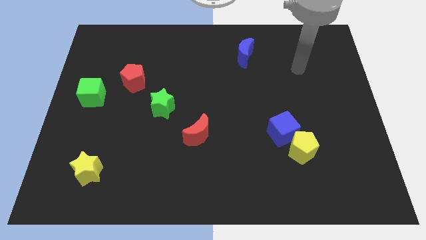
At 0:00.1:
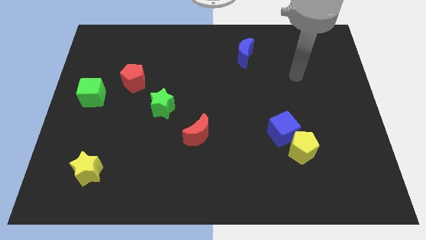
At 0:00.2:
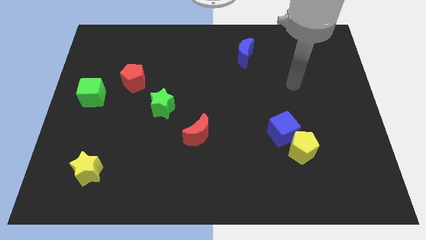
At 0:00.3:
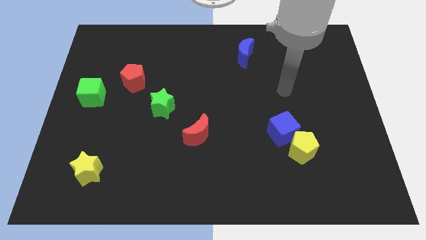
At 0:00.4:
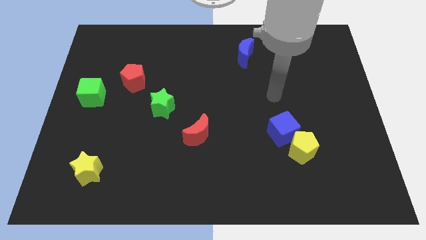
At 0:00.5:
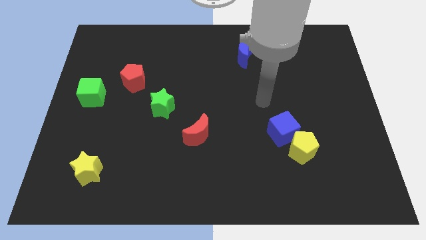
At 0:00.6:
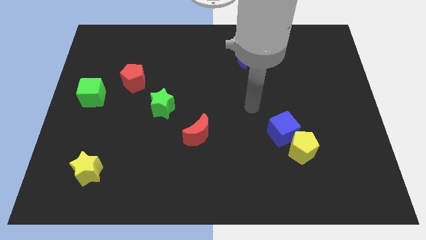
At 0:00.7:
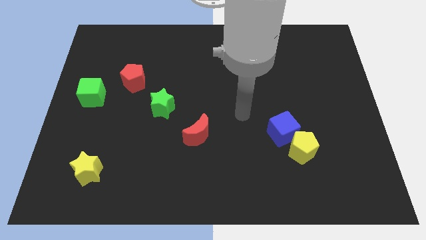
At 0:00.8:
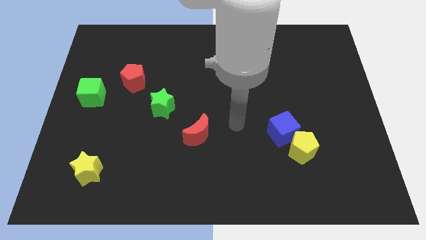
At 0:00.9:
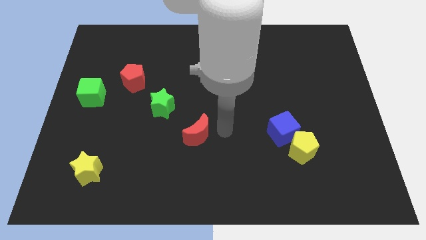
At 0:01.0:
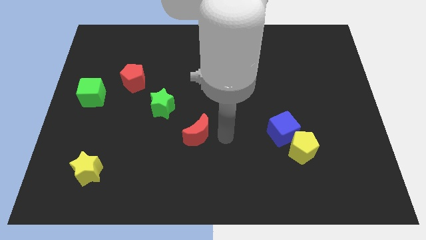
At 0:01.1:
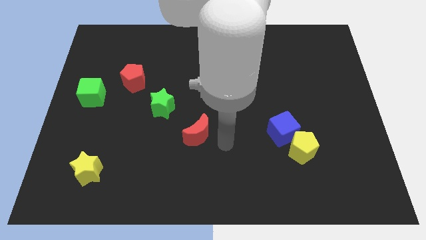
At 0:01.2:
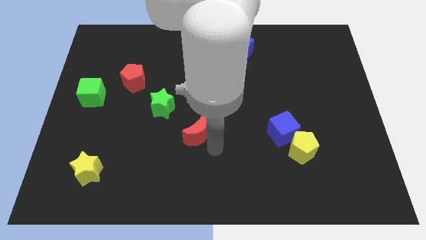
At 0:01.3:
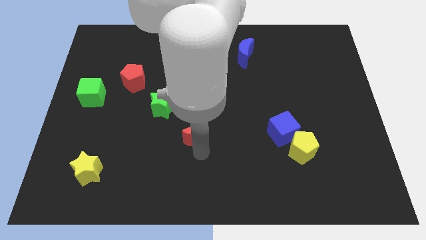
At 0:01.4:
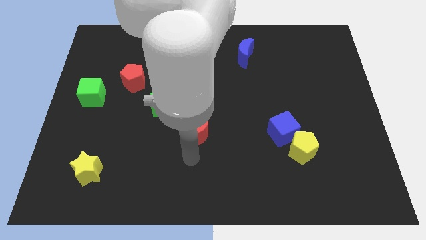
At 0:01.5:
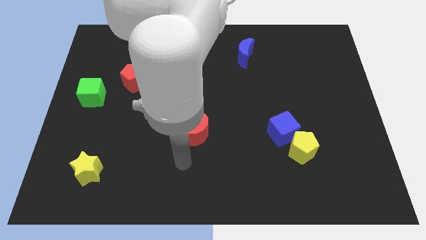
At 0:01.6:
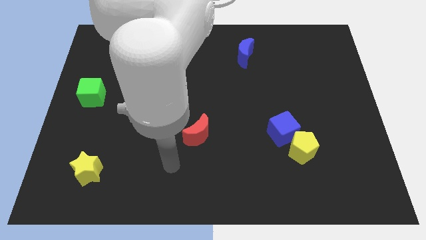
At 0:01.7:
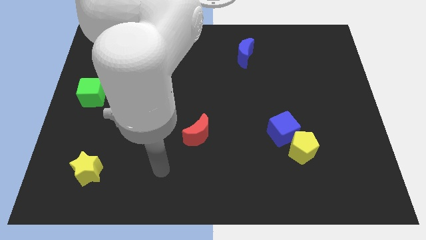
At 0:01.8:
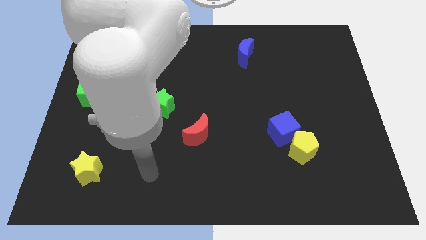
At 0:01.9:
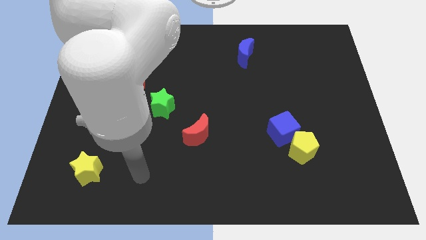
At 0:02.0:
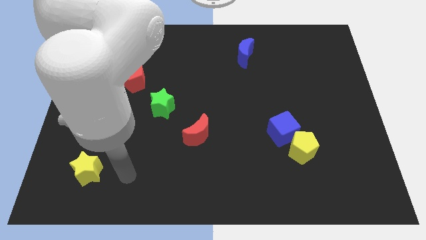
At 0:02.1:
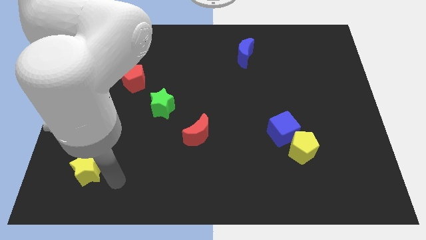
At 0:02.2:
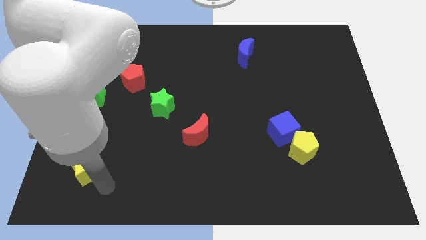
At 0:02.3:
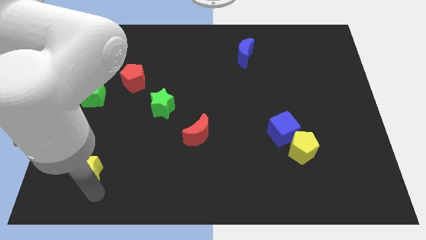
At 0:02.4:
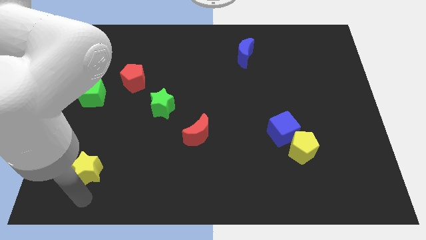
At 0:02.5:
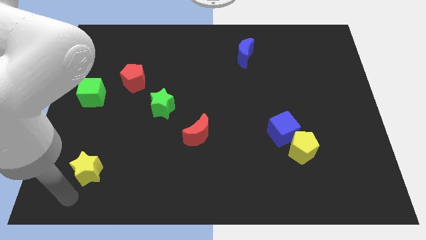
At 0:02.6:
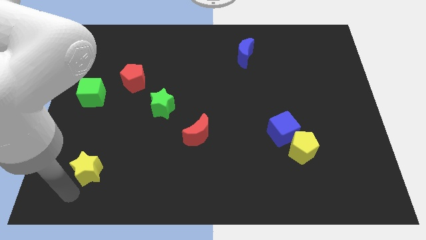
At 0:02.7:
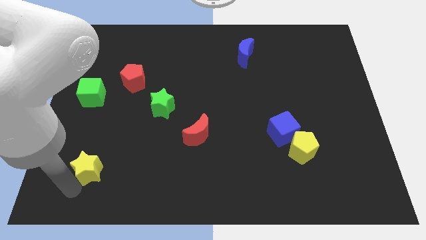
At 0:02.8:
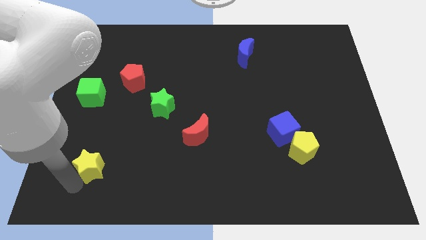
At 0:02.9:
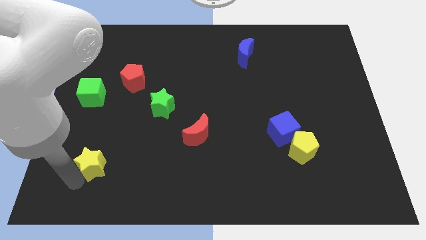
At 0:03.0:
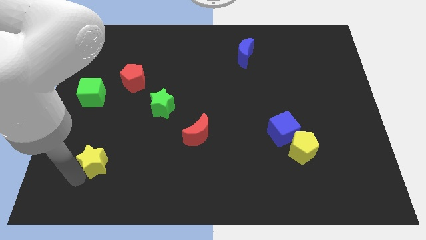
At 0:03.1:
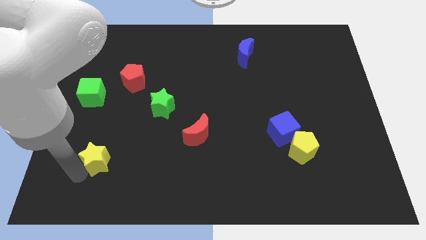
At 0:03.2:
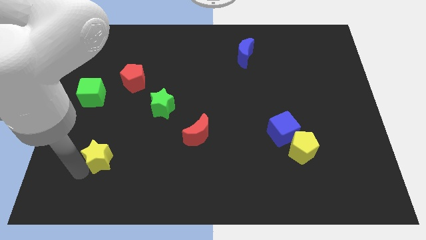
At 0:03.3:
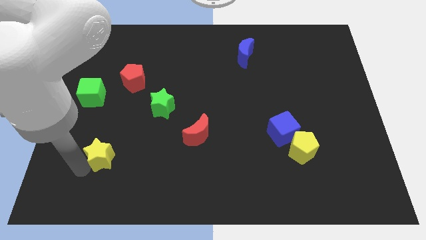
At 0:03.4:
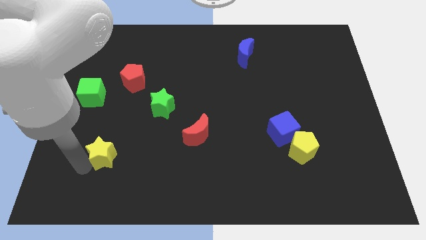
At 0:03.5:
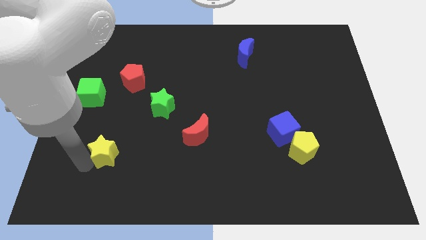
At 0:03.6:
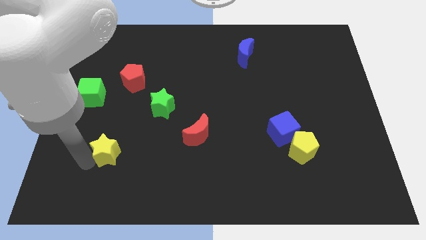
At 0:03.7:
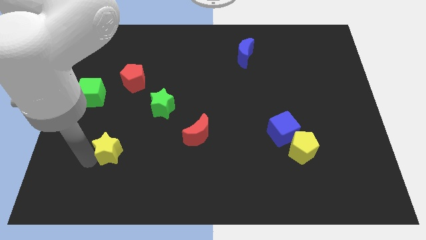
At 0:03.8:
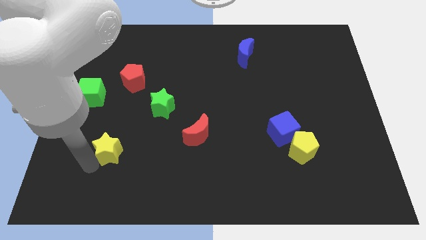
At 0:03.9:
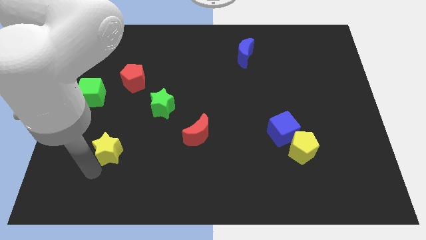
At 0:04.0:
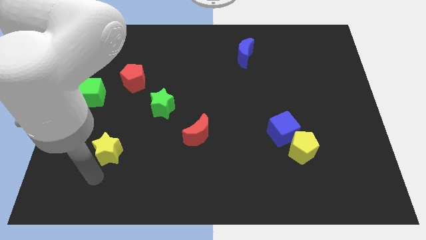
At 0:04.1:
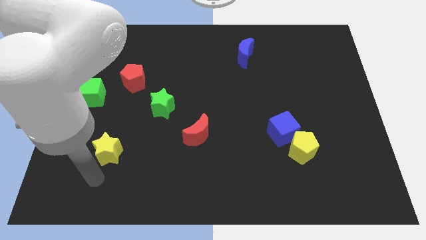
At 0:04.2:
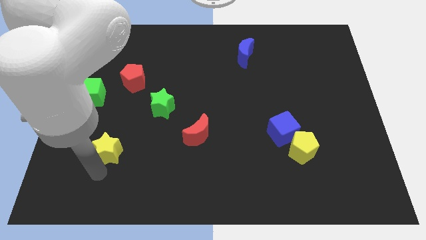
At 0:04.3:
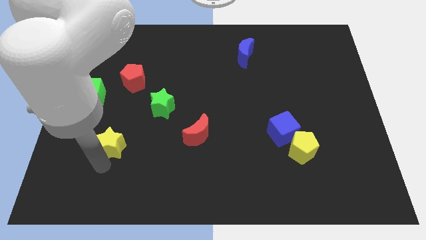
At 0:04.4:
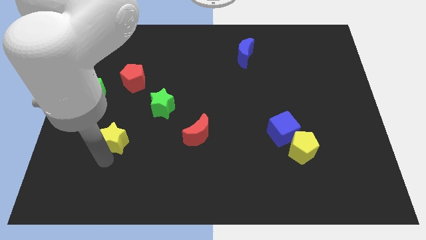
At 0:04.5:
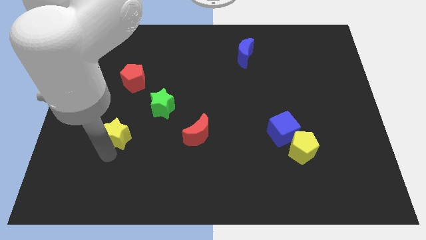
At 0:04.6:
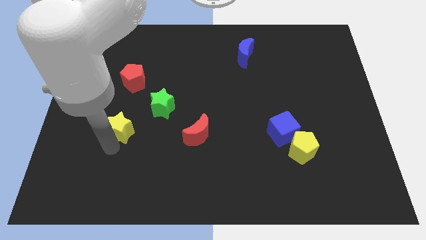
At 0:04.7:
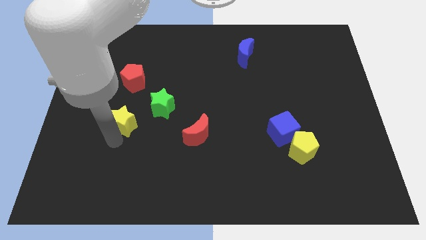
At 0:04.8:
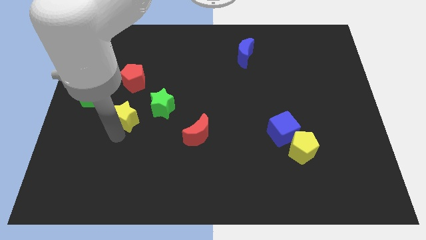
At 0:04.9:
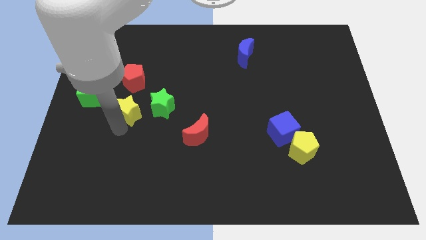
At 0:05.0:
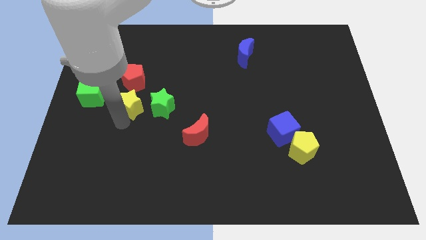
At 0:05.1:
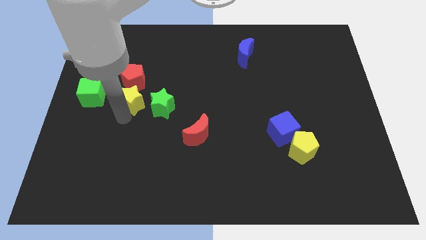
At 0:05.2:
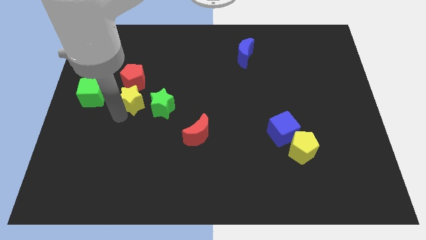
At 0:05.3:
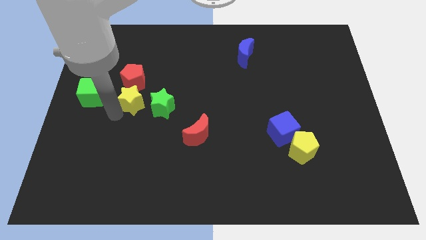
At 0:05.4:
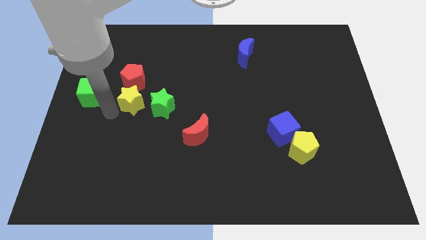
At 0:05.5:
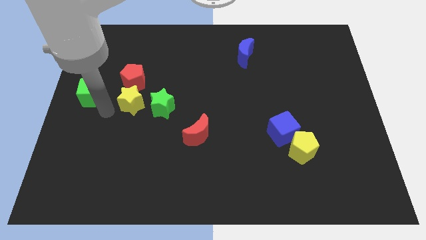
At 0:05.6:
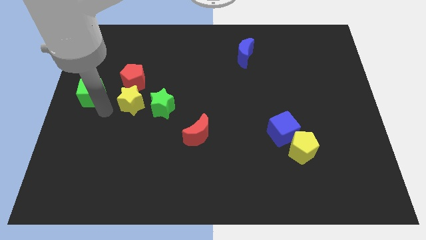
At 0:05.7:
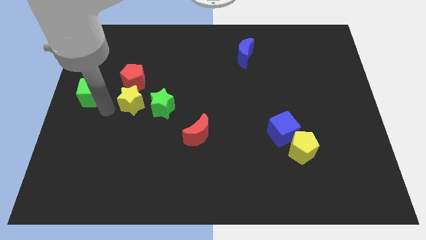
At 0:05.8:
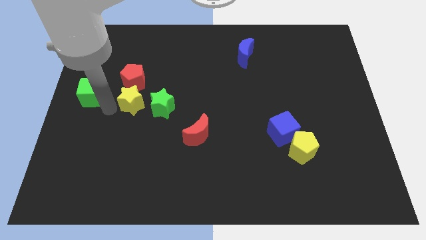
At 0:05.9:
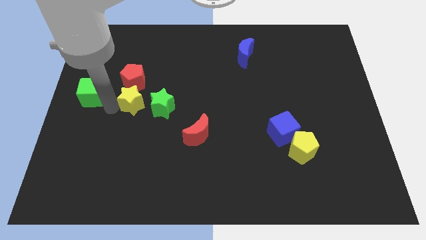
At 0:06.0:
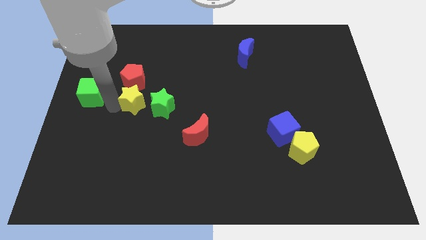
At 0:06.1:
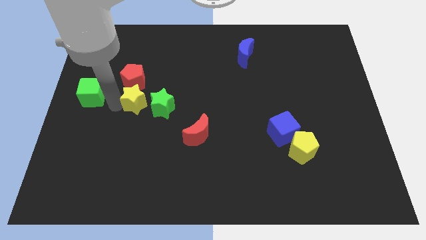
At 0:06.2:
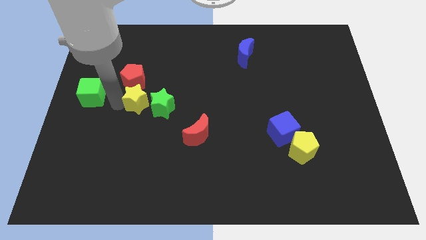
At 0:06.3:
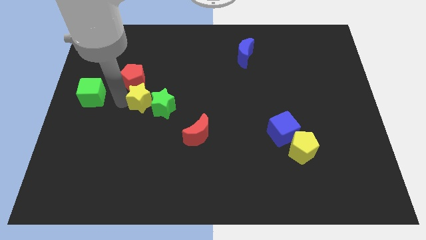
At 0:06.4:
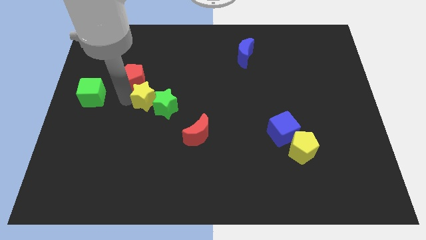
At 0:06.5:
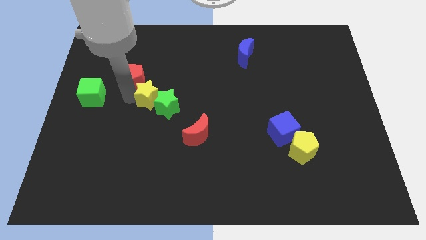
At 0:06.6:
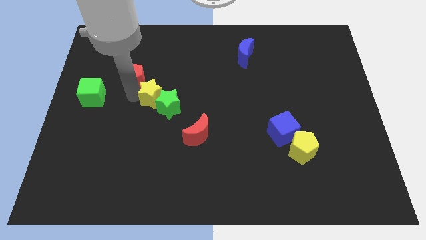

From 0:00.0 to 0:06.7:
push the yellow star just right of the red pentagon

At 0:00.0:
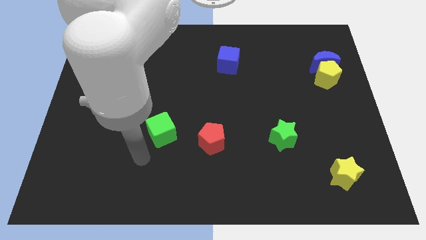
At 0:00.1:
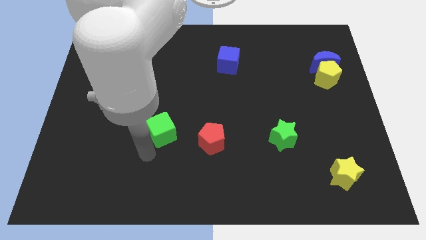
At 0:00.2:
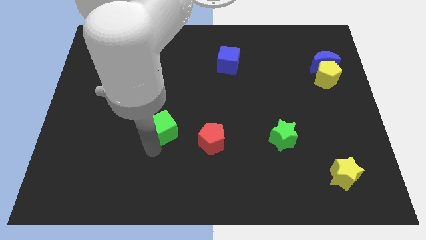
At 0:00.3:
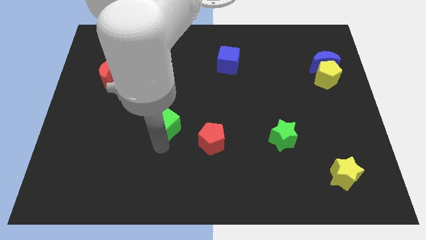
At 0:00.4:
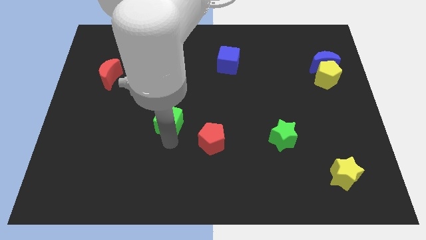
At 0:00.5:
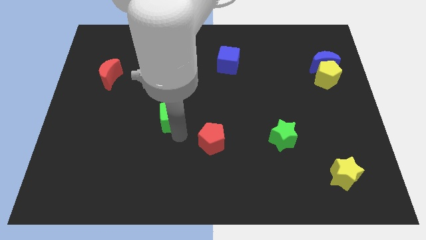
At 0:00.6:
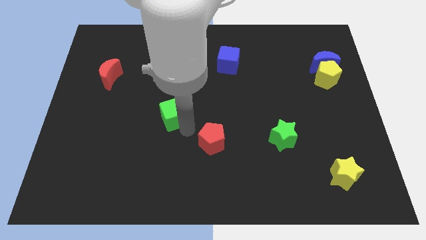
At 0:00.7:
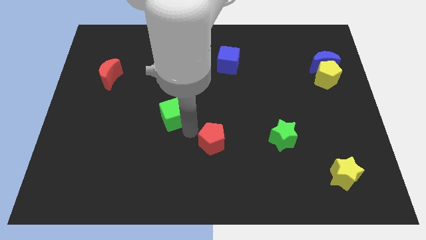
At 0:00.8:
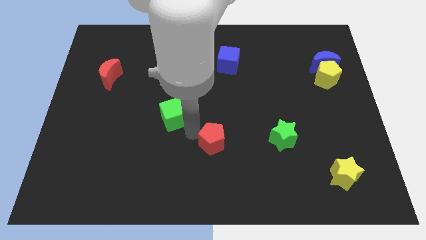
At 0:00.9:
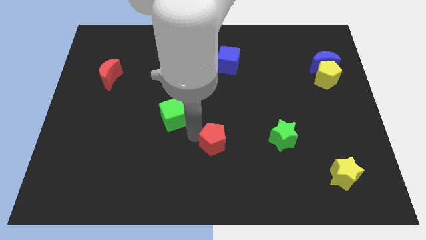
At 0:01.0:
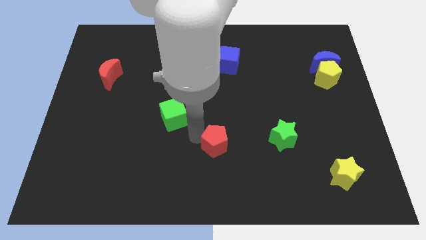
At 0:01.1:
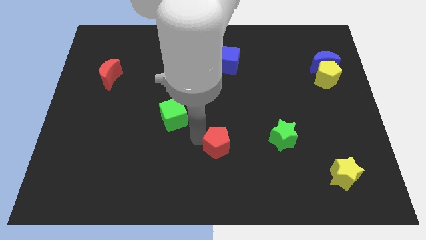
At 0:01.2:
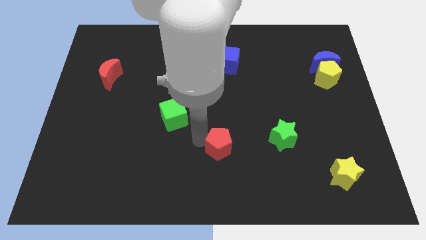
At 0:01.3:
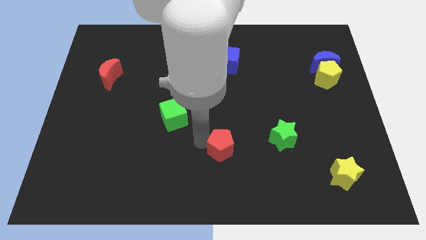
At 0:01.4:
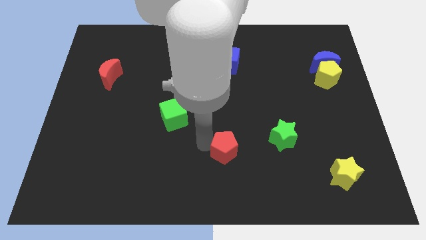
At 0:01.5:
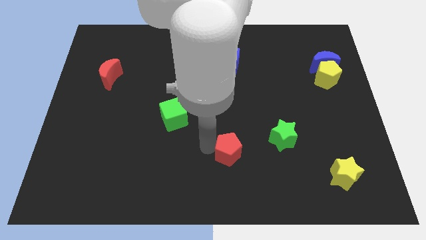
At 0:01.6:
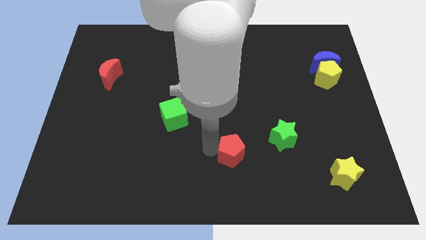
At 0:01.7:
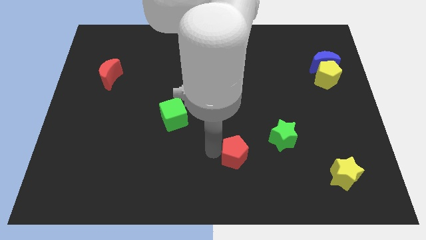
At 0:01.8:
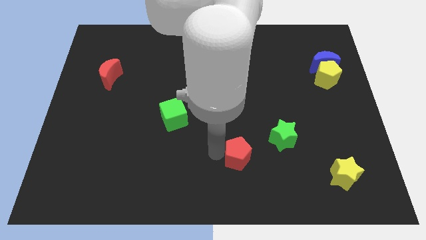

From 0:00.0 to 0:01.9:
put the red pentagon diagonally down and to the left of the green star
